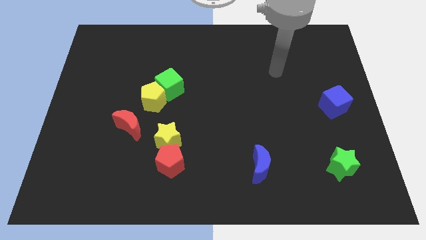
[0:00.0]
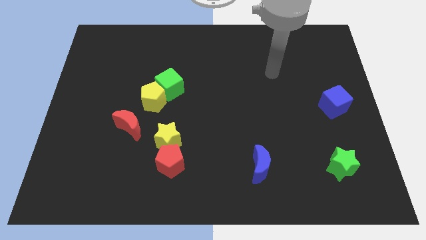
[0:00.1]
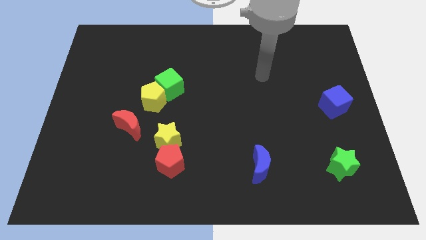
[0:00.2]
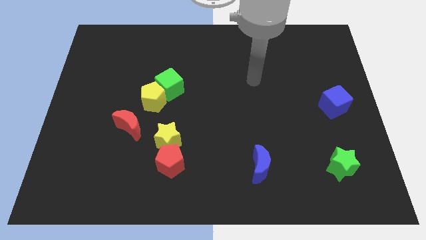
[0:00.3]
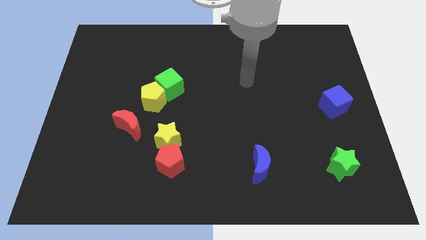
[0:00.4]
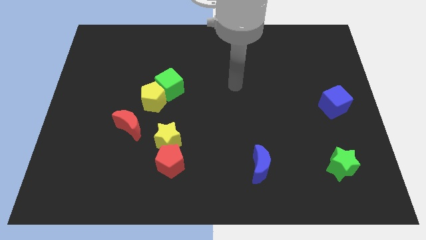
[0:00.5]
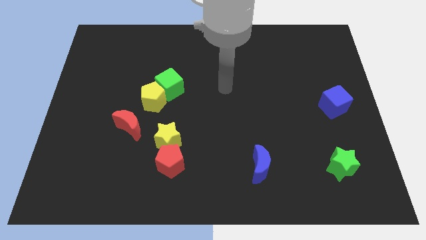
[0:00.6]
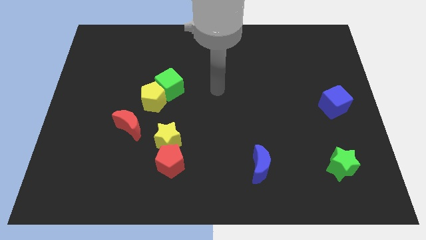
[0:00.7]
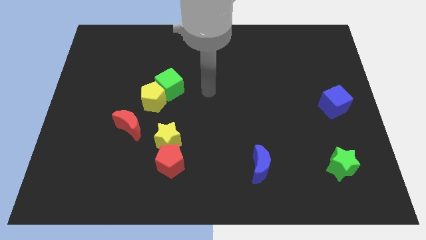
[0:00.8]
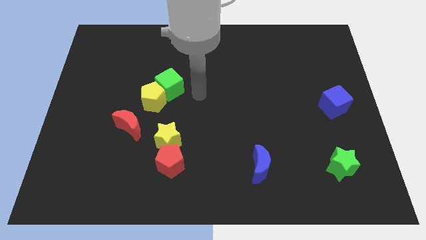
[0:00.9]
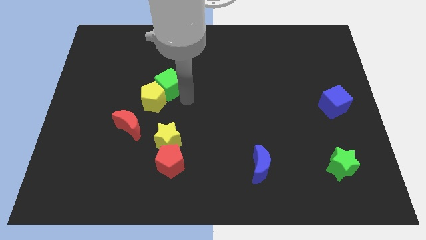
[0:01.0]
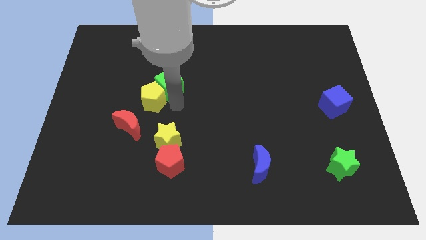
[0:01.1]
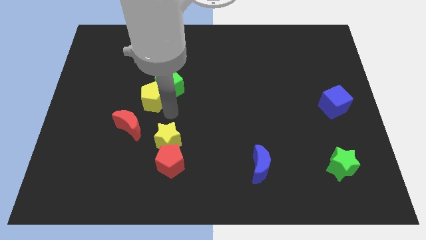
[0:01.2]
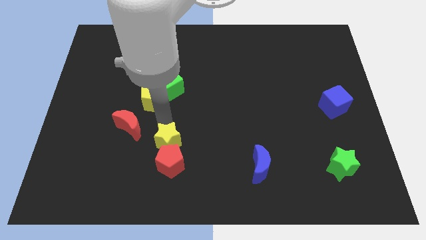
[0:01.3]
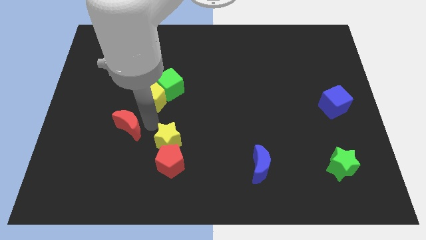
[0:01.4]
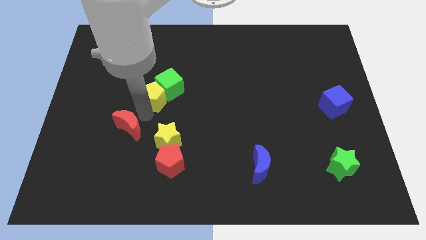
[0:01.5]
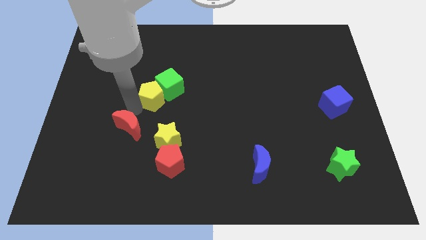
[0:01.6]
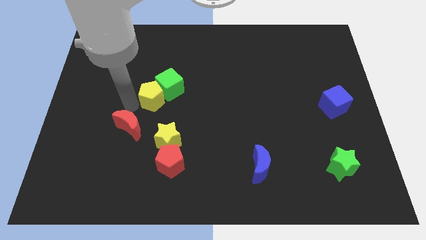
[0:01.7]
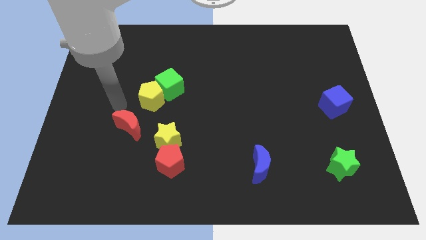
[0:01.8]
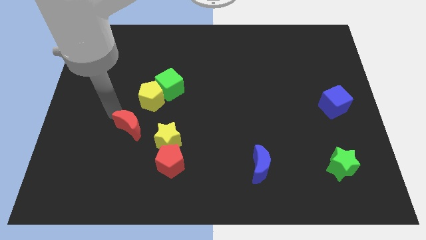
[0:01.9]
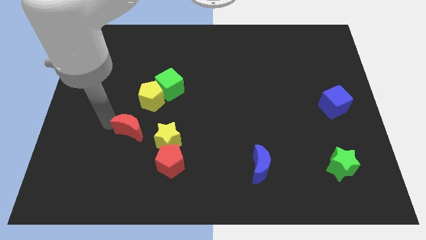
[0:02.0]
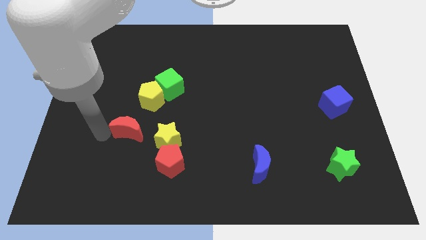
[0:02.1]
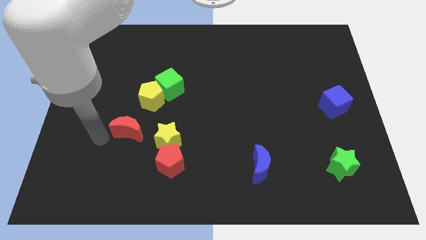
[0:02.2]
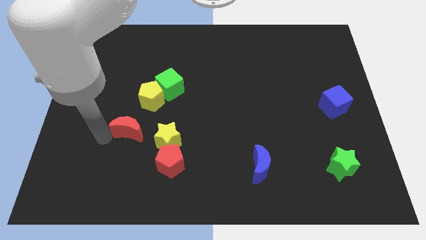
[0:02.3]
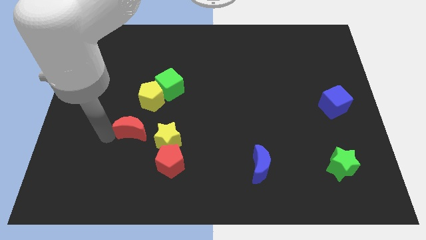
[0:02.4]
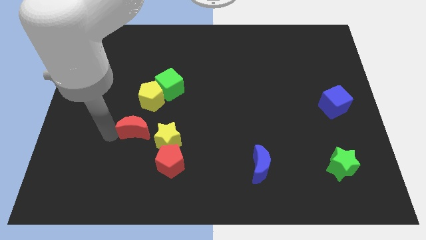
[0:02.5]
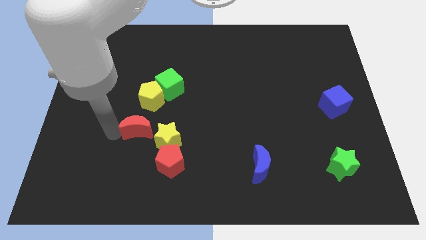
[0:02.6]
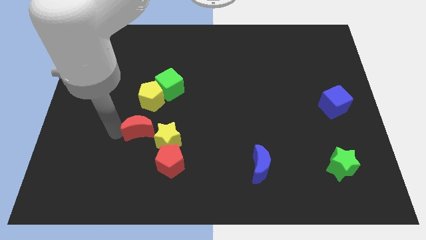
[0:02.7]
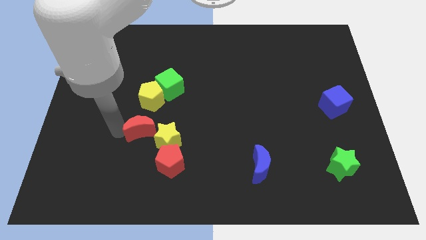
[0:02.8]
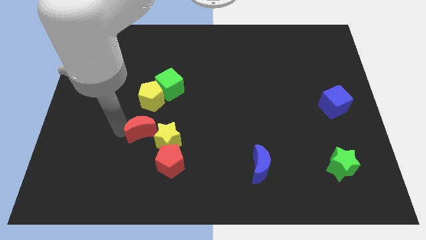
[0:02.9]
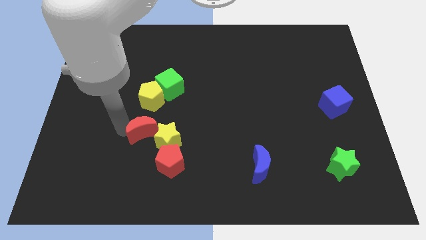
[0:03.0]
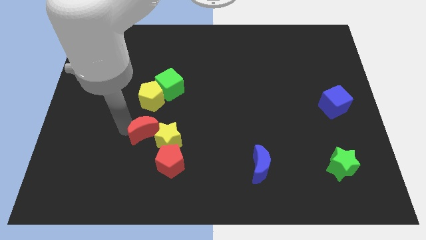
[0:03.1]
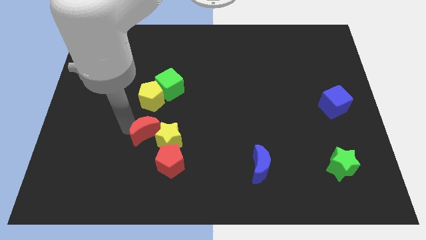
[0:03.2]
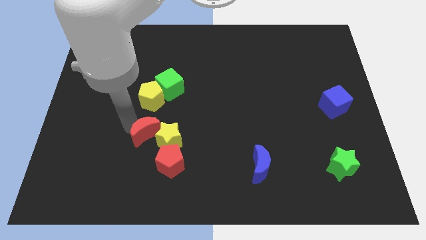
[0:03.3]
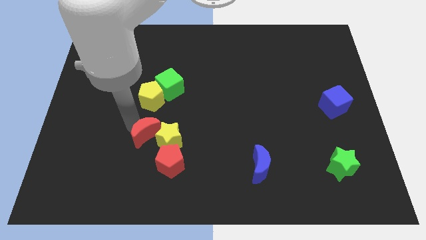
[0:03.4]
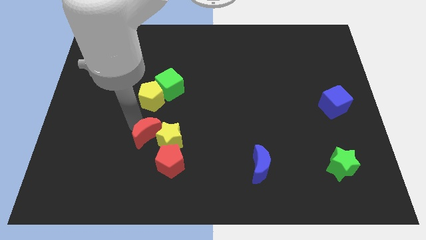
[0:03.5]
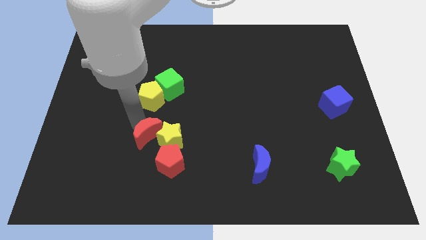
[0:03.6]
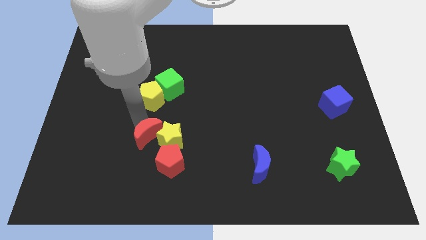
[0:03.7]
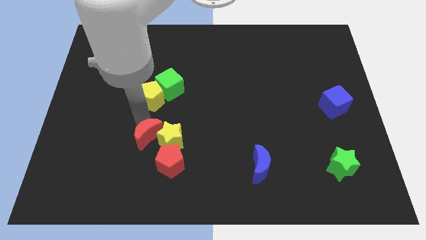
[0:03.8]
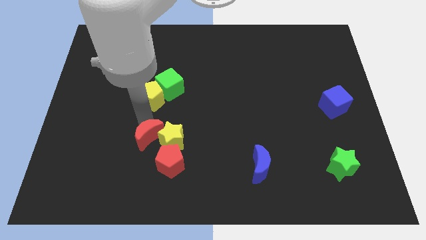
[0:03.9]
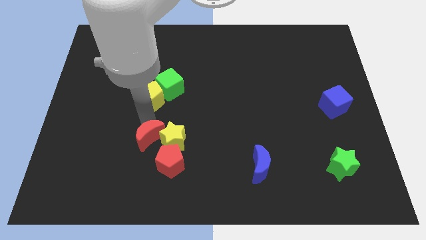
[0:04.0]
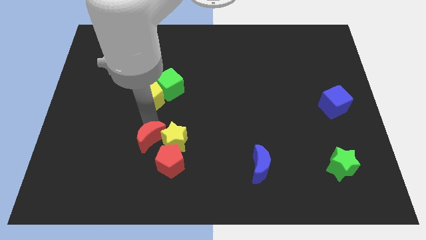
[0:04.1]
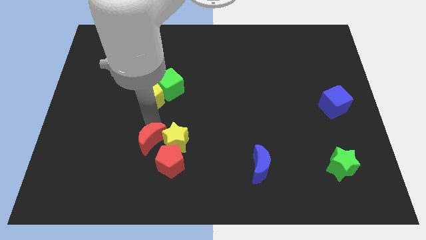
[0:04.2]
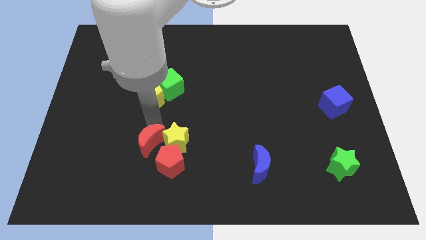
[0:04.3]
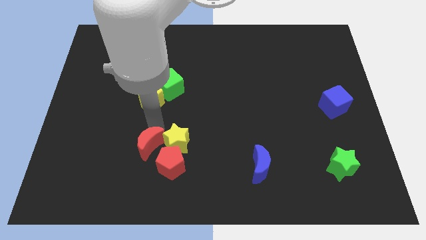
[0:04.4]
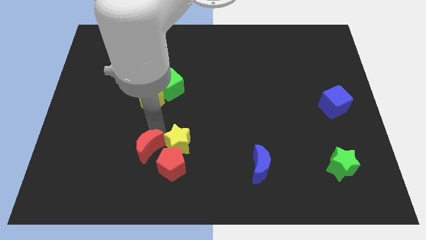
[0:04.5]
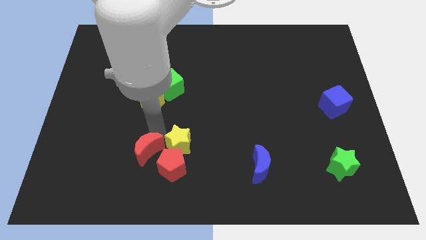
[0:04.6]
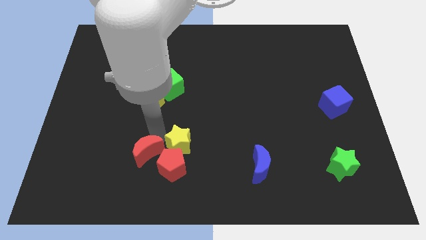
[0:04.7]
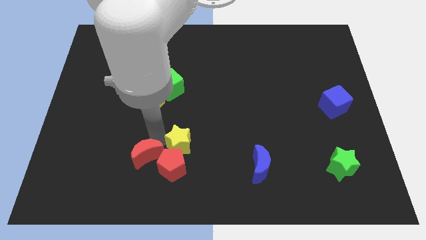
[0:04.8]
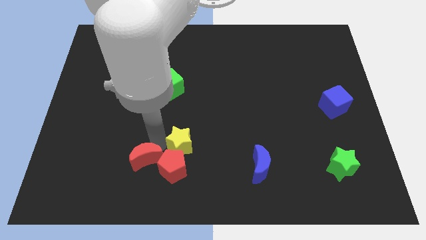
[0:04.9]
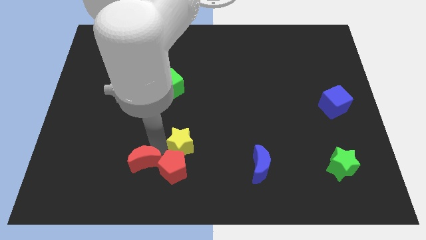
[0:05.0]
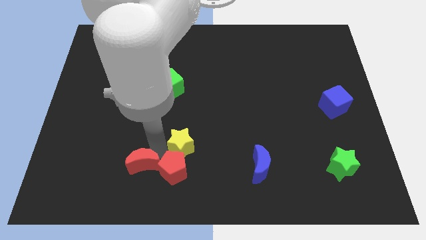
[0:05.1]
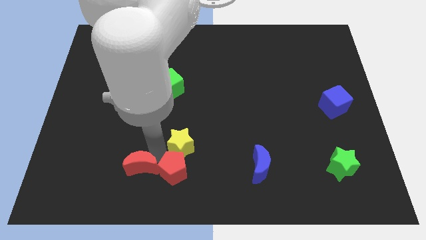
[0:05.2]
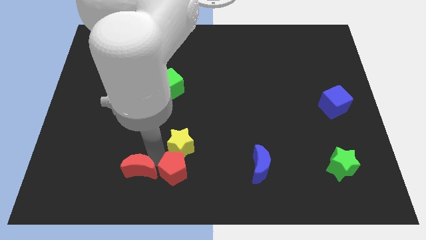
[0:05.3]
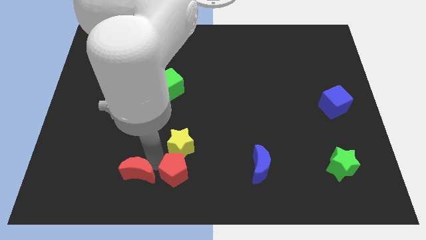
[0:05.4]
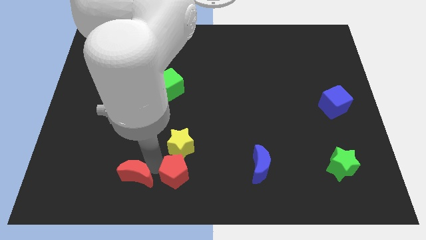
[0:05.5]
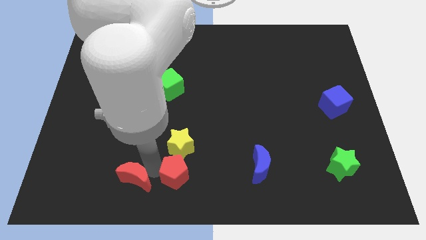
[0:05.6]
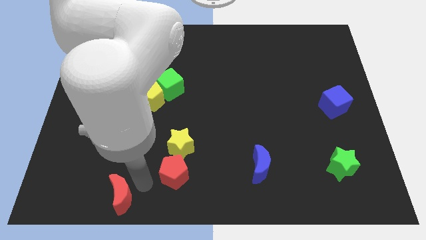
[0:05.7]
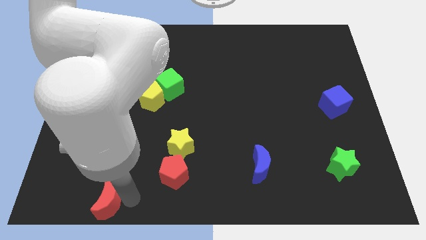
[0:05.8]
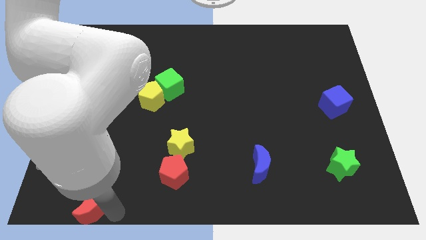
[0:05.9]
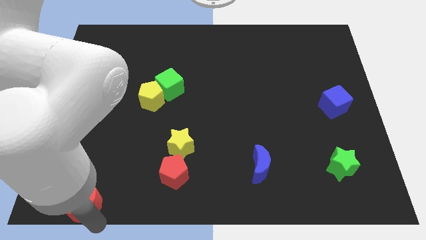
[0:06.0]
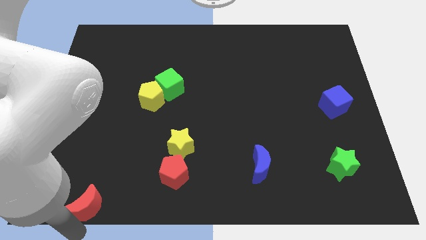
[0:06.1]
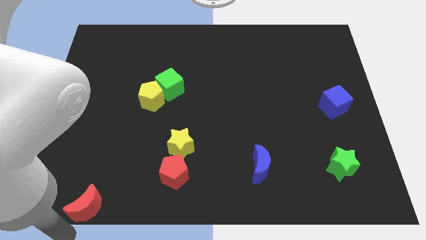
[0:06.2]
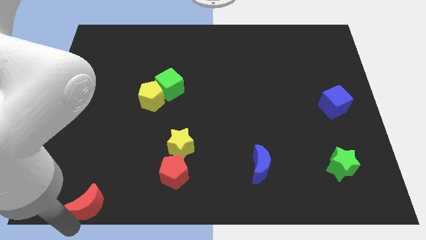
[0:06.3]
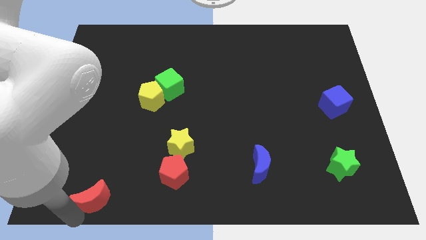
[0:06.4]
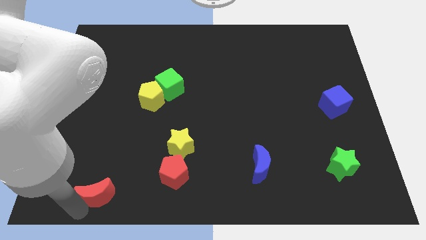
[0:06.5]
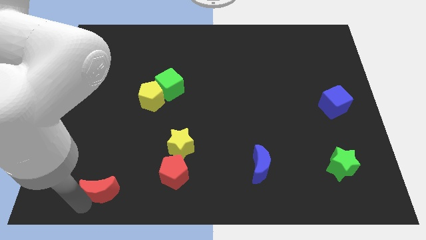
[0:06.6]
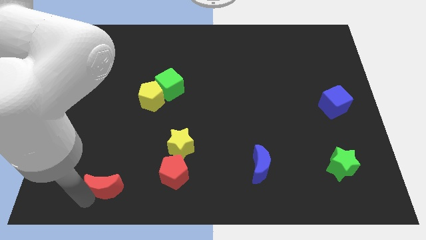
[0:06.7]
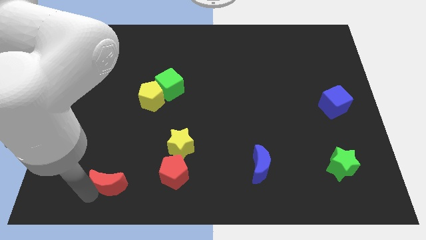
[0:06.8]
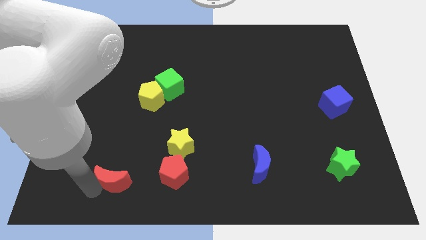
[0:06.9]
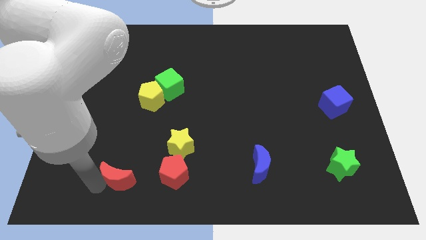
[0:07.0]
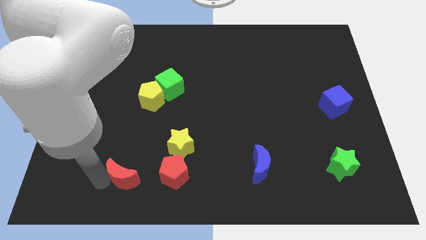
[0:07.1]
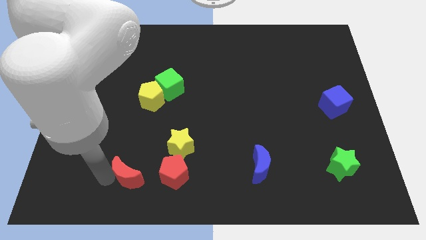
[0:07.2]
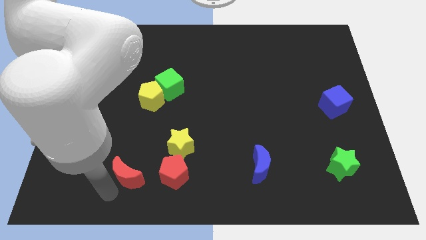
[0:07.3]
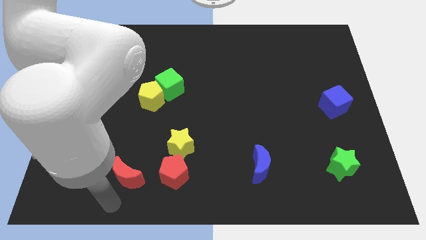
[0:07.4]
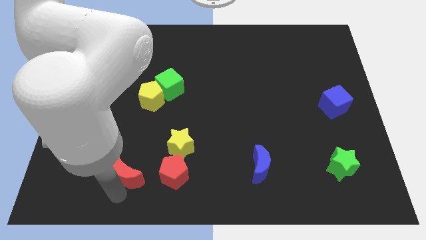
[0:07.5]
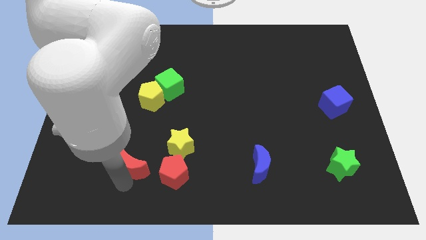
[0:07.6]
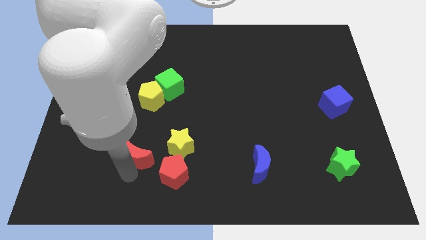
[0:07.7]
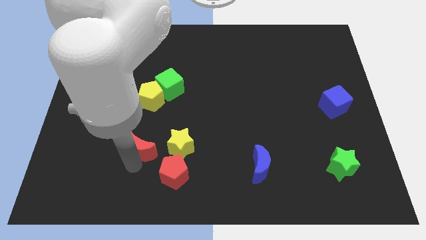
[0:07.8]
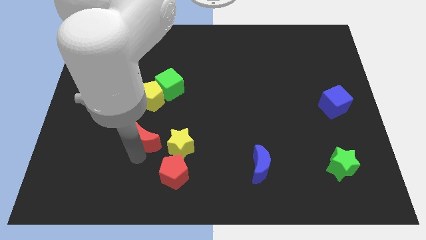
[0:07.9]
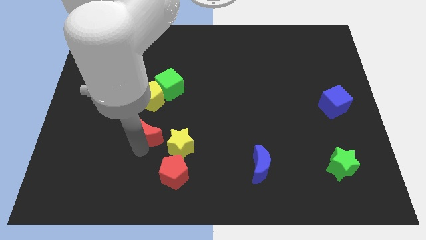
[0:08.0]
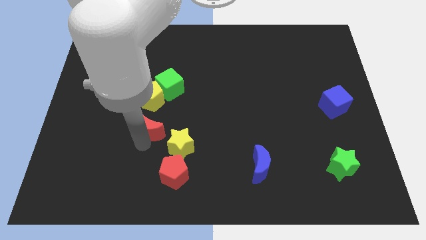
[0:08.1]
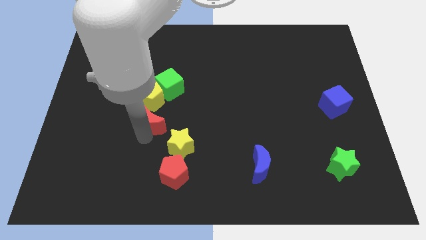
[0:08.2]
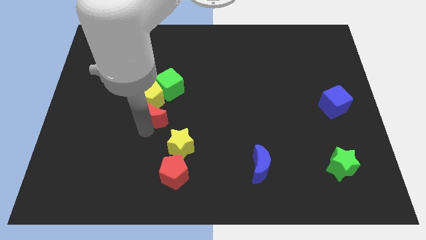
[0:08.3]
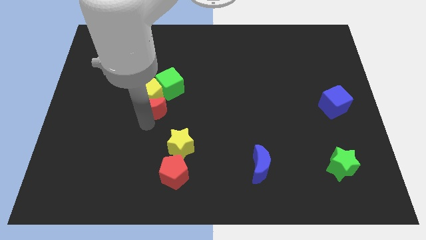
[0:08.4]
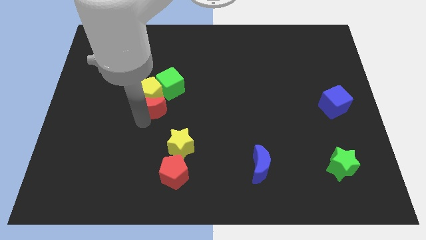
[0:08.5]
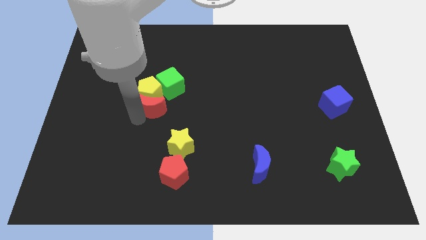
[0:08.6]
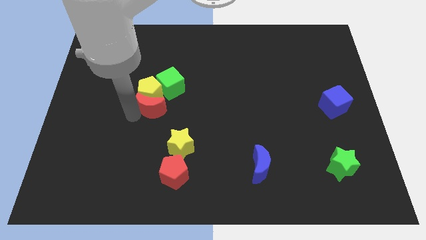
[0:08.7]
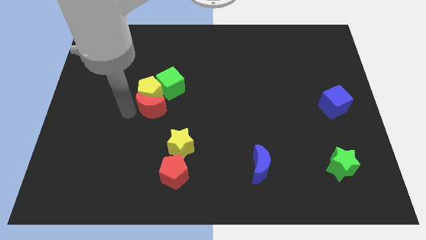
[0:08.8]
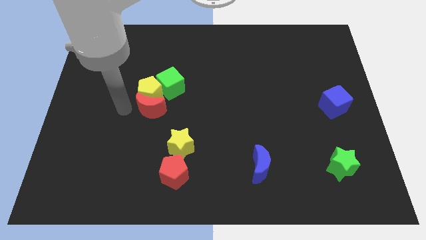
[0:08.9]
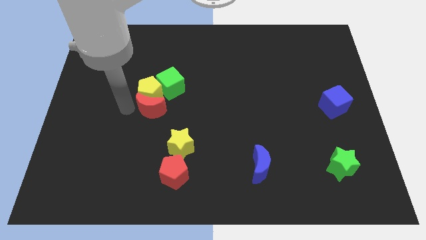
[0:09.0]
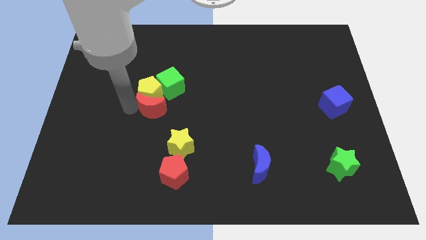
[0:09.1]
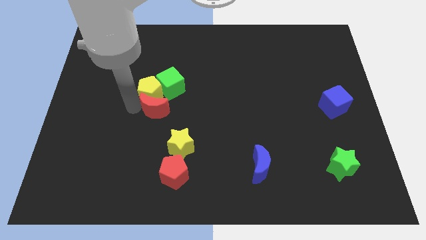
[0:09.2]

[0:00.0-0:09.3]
slide the red moon somewhat upwards and to the right
